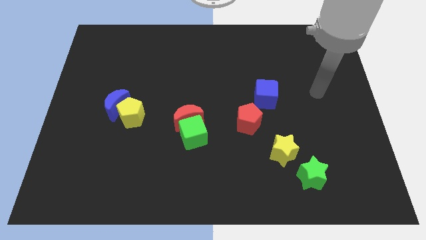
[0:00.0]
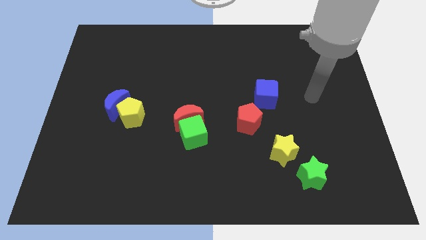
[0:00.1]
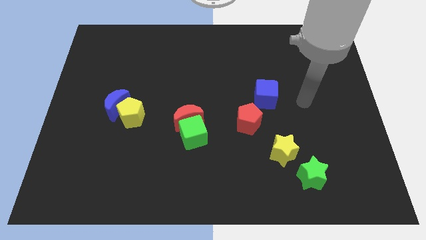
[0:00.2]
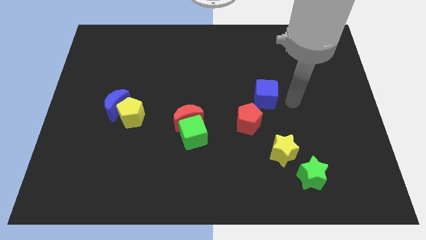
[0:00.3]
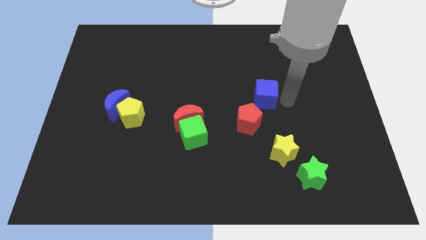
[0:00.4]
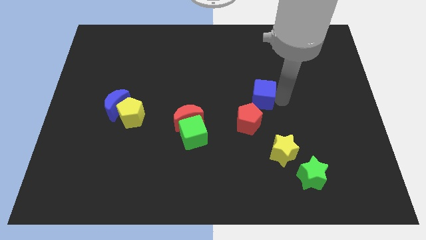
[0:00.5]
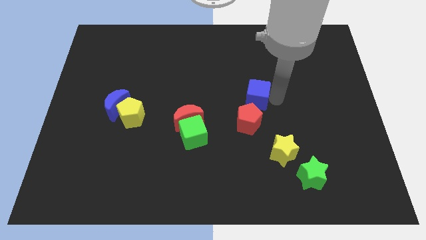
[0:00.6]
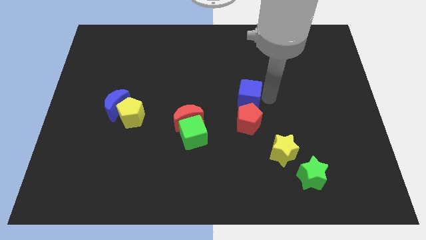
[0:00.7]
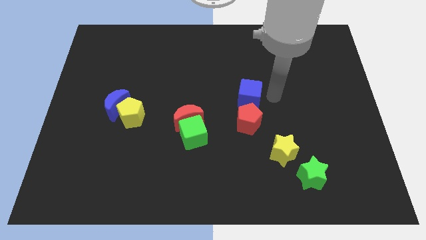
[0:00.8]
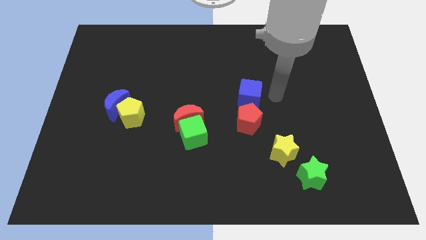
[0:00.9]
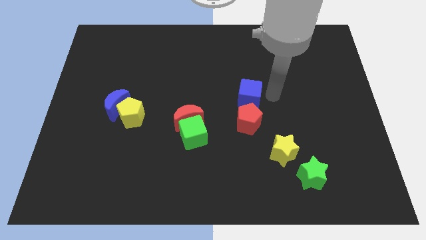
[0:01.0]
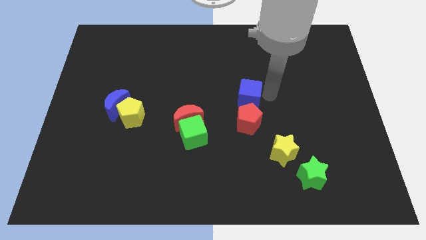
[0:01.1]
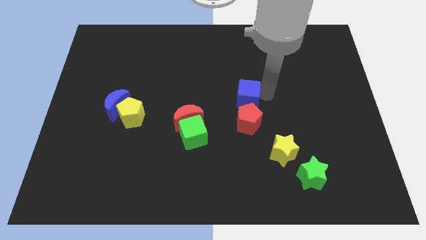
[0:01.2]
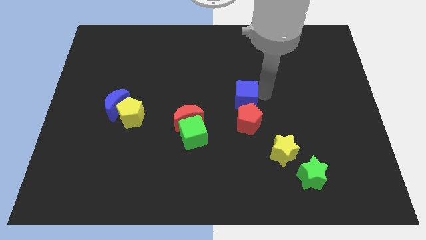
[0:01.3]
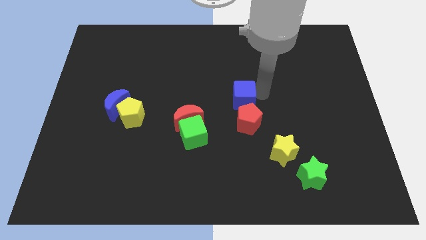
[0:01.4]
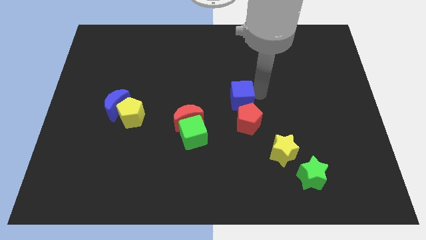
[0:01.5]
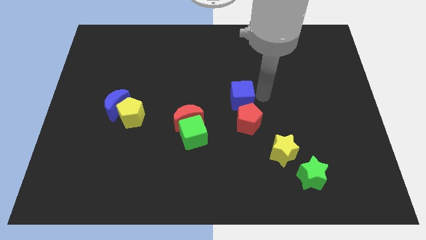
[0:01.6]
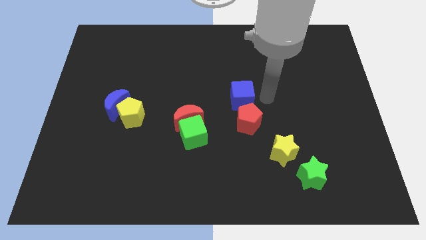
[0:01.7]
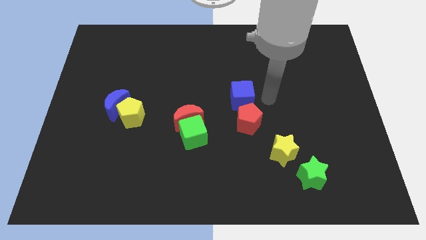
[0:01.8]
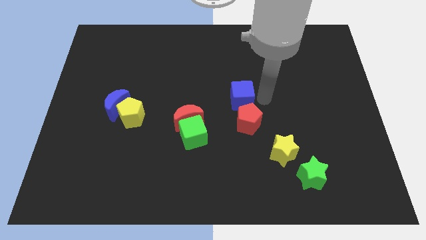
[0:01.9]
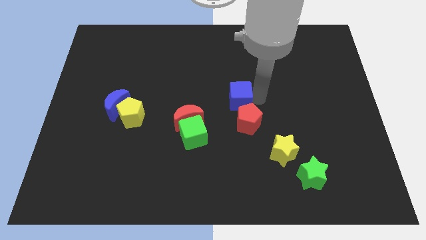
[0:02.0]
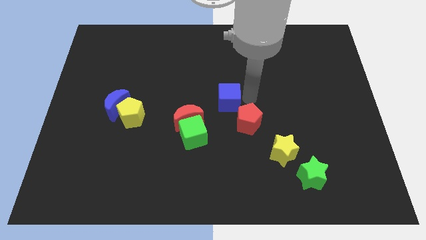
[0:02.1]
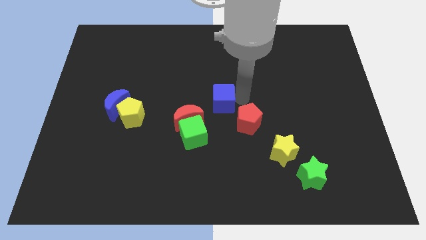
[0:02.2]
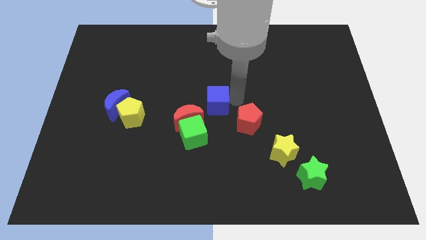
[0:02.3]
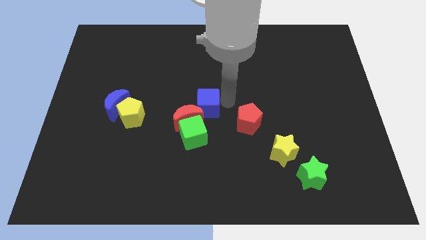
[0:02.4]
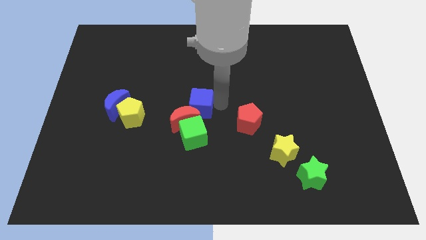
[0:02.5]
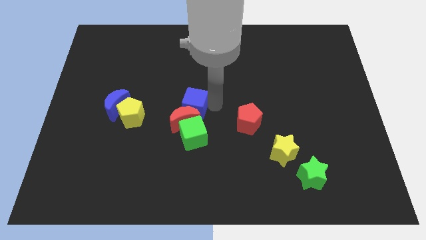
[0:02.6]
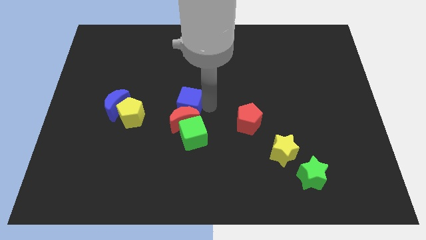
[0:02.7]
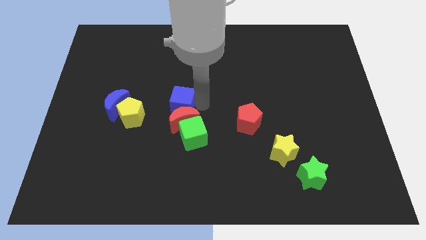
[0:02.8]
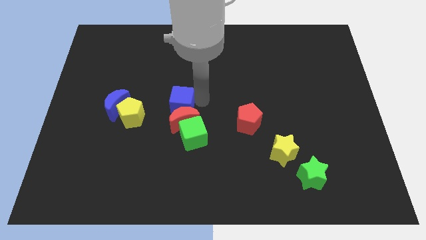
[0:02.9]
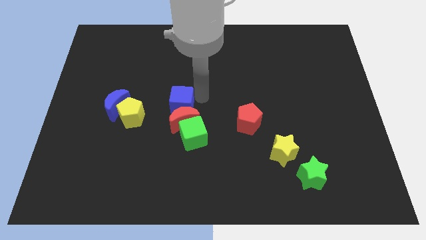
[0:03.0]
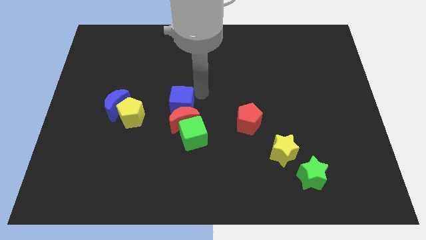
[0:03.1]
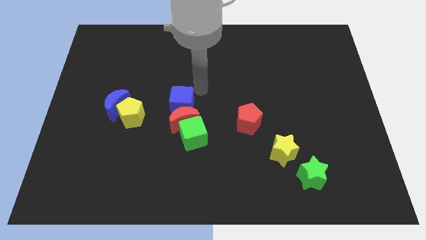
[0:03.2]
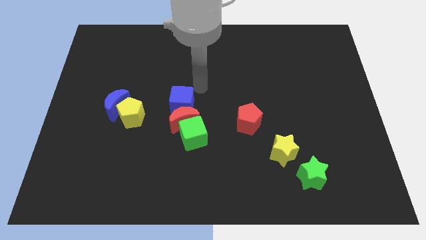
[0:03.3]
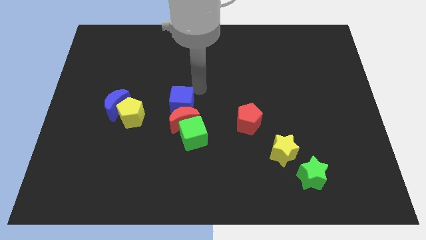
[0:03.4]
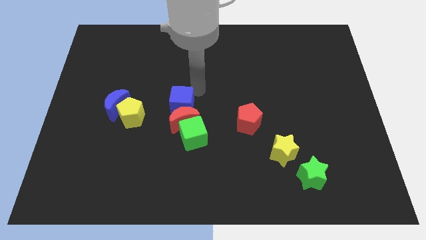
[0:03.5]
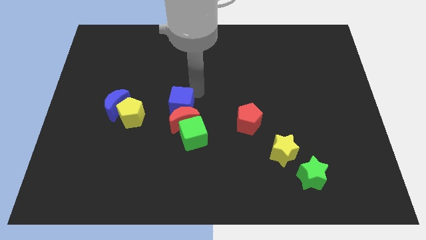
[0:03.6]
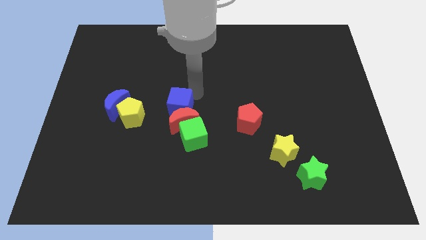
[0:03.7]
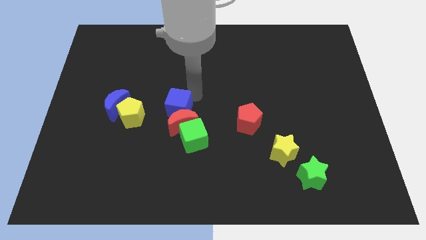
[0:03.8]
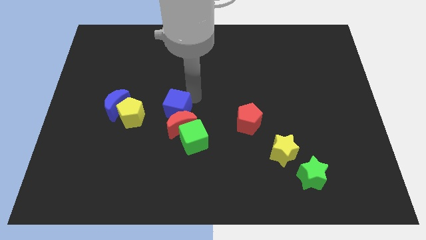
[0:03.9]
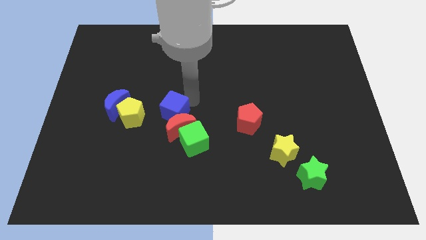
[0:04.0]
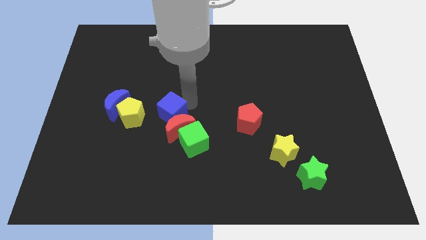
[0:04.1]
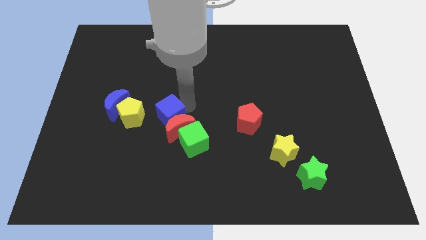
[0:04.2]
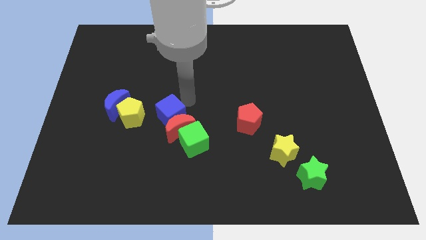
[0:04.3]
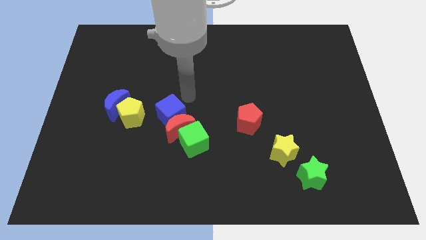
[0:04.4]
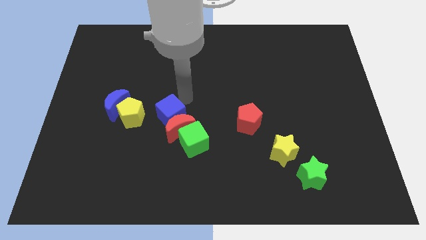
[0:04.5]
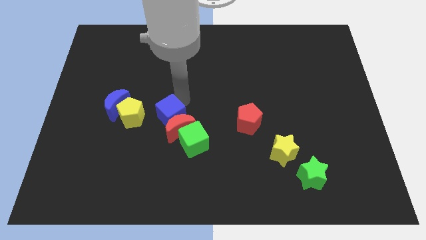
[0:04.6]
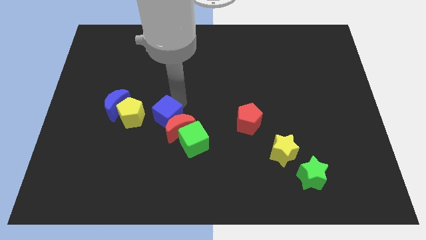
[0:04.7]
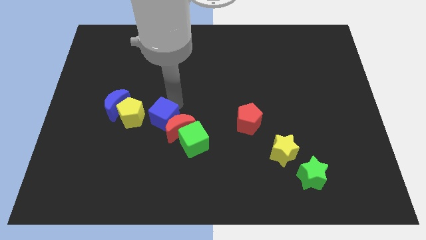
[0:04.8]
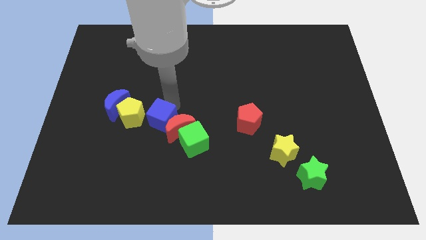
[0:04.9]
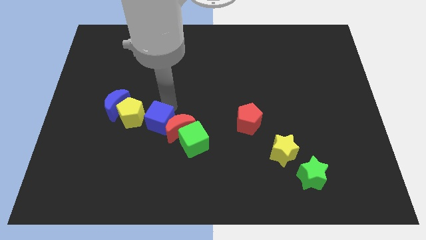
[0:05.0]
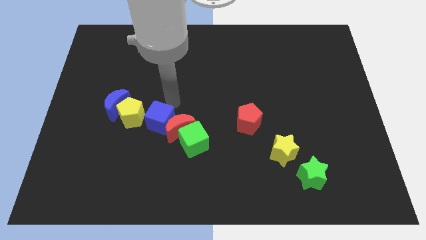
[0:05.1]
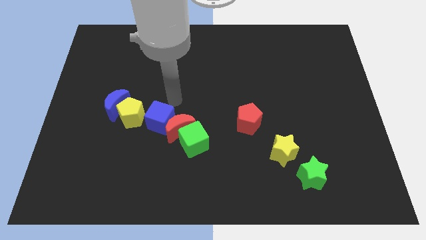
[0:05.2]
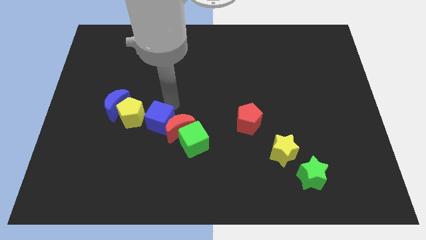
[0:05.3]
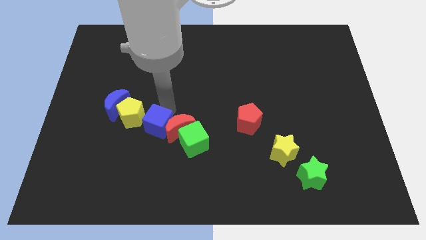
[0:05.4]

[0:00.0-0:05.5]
push the blue cube to the left of the green cube

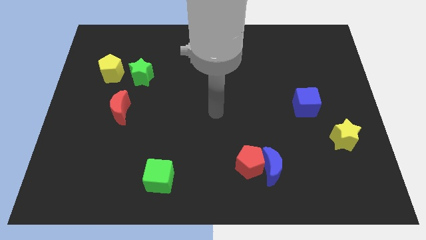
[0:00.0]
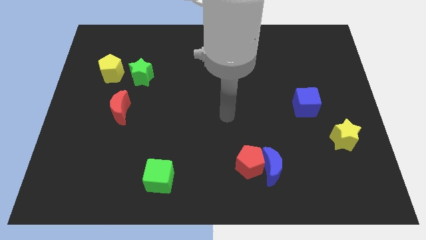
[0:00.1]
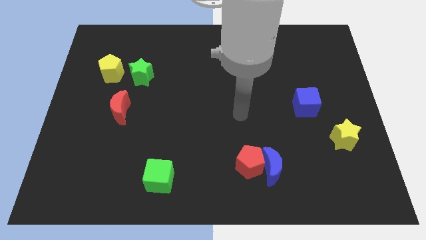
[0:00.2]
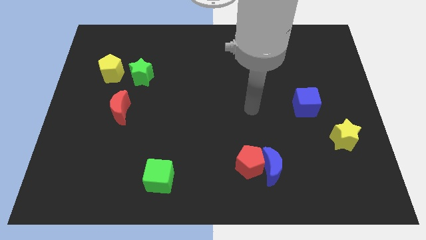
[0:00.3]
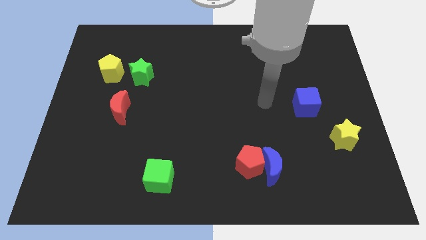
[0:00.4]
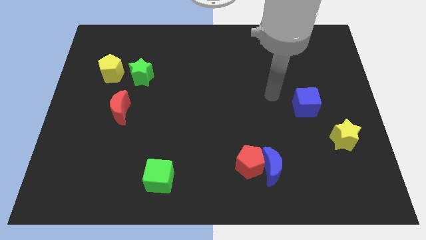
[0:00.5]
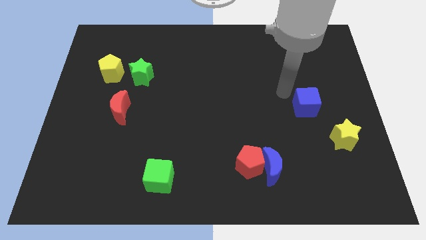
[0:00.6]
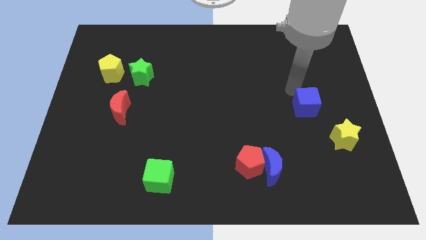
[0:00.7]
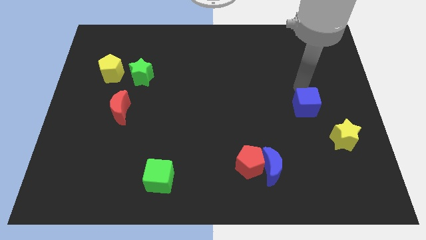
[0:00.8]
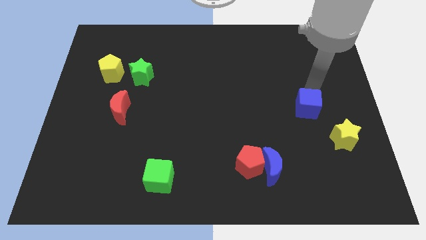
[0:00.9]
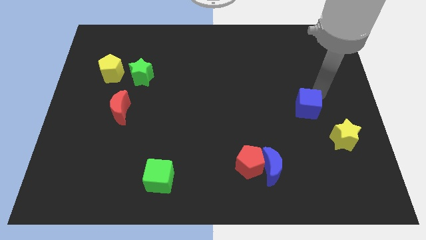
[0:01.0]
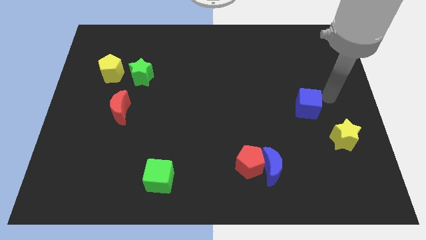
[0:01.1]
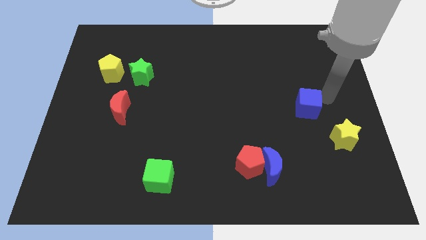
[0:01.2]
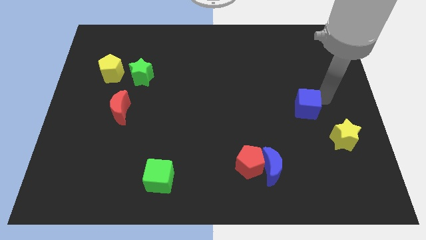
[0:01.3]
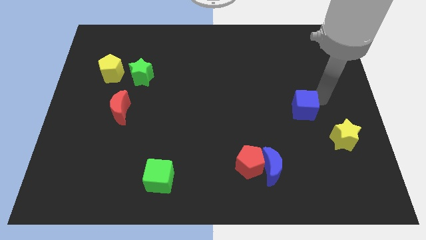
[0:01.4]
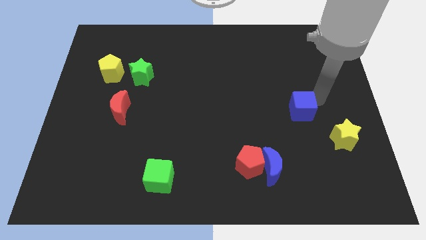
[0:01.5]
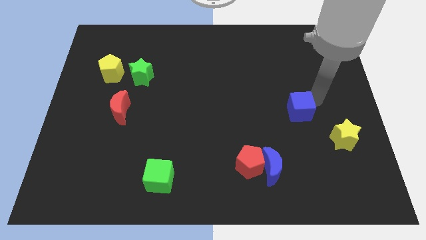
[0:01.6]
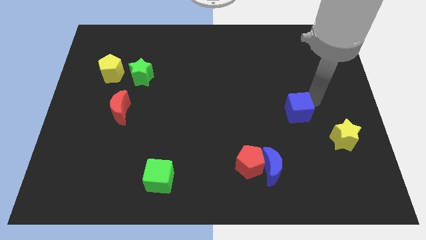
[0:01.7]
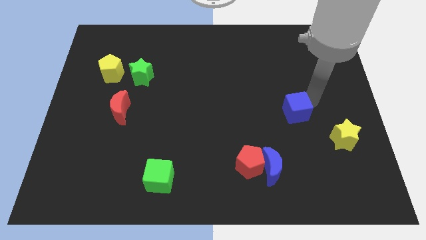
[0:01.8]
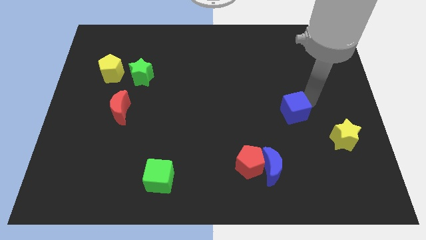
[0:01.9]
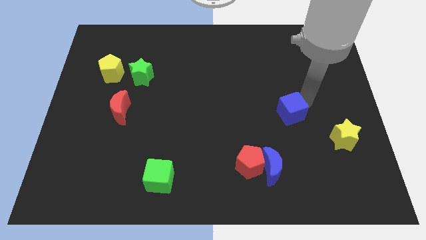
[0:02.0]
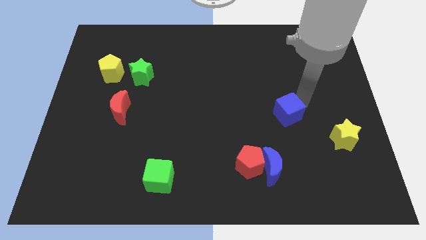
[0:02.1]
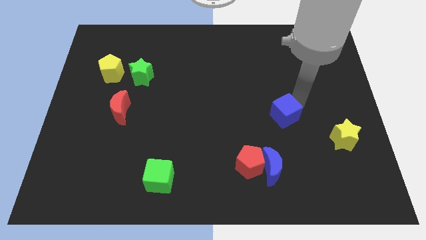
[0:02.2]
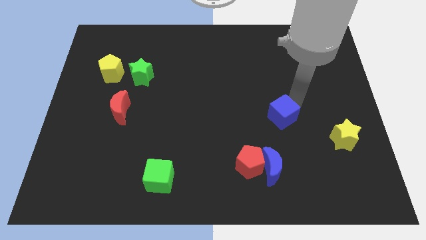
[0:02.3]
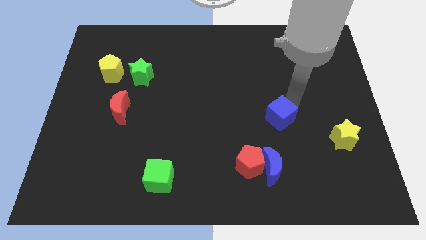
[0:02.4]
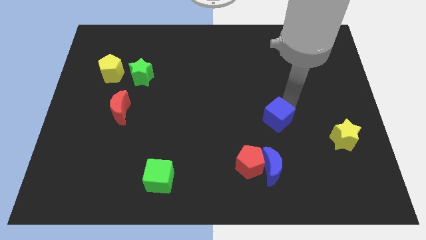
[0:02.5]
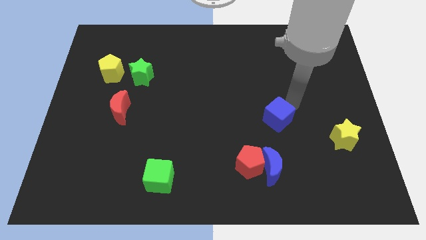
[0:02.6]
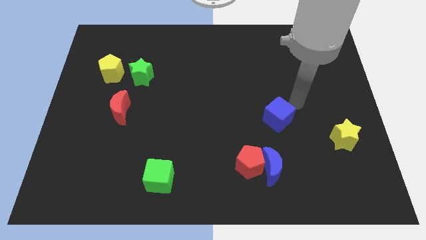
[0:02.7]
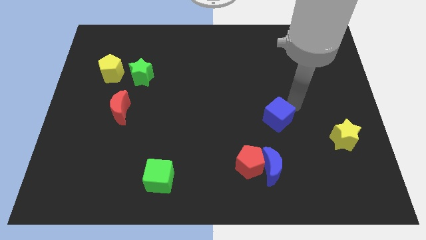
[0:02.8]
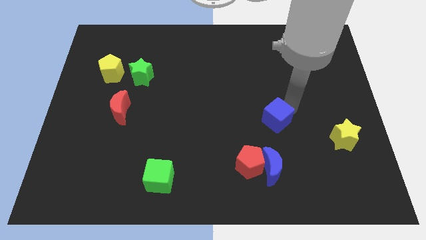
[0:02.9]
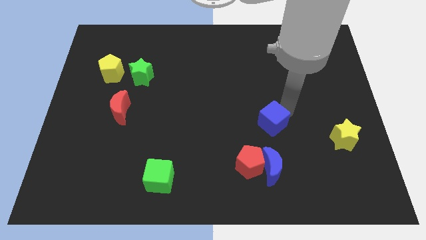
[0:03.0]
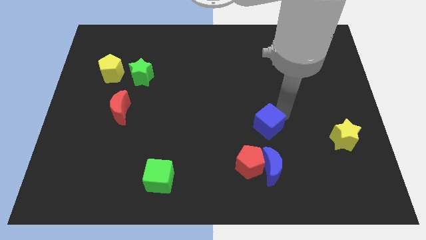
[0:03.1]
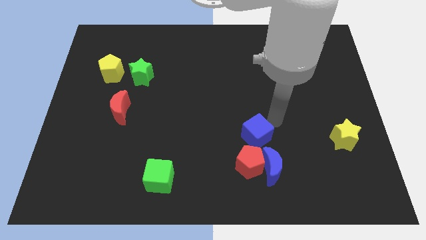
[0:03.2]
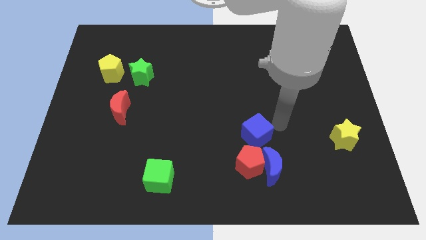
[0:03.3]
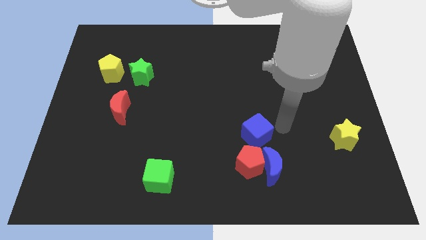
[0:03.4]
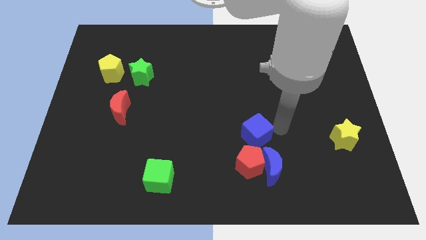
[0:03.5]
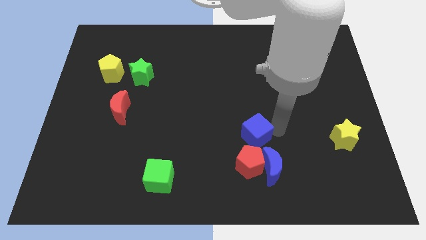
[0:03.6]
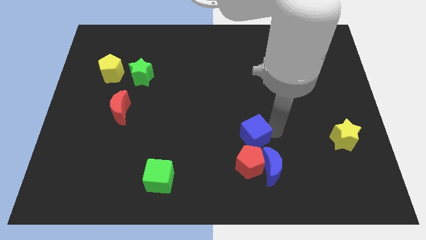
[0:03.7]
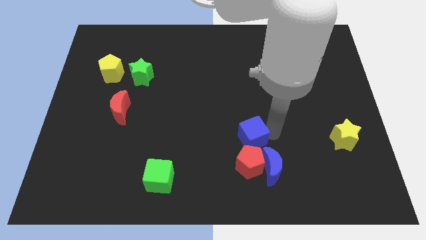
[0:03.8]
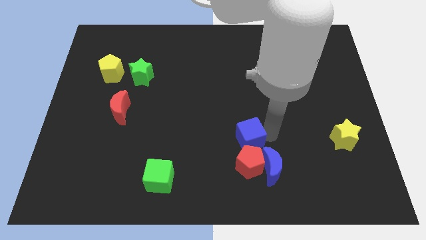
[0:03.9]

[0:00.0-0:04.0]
put the blue cube diagonally up and to the left of the red pentagon
